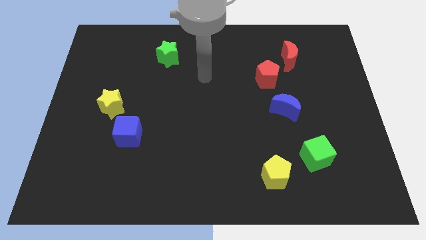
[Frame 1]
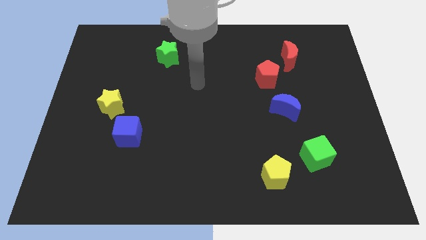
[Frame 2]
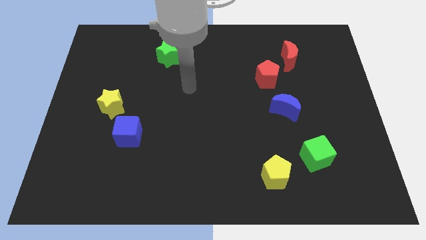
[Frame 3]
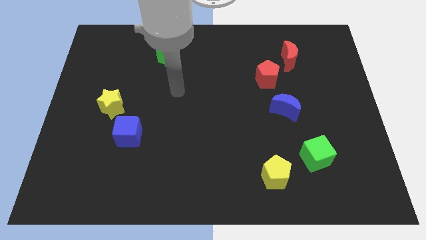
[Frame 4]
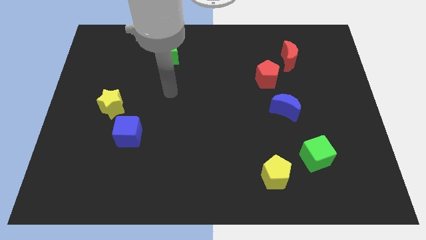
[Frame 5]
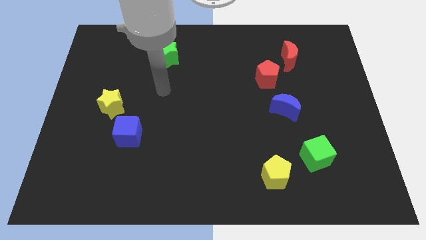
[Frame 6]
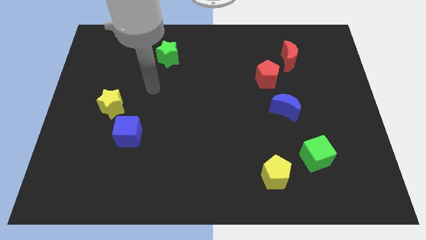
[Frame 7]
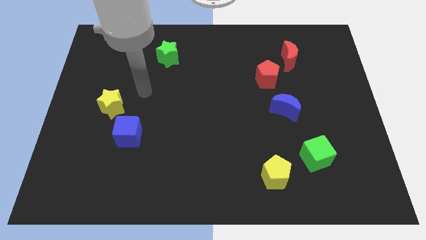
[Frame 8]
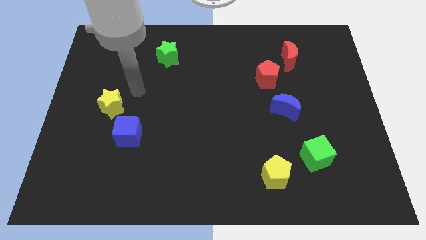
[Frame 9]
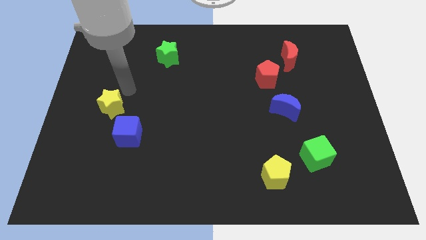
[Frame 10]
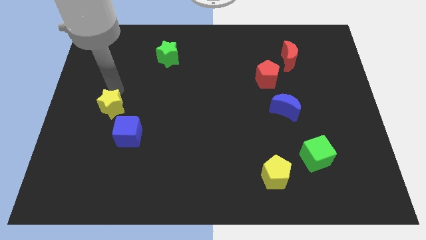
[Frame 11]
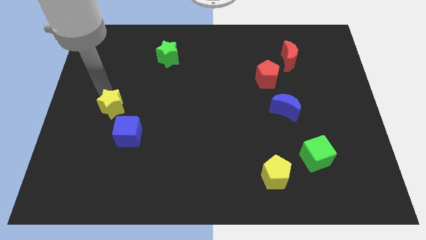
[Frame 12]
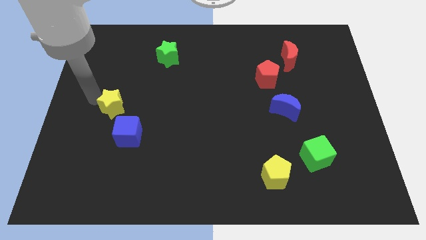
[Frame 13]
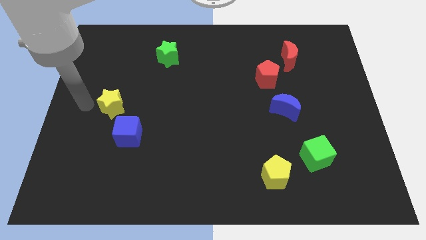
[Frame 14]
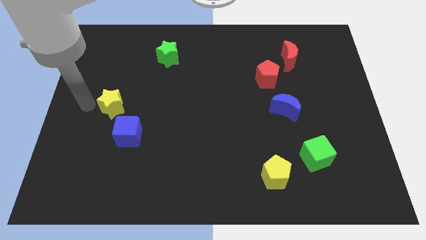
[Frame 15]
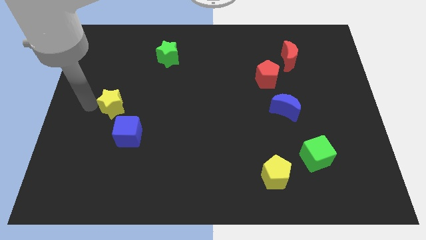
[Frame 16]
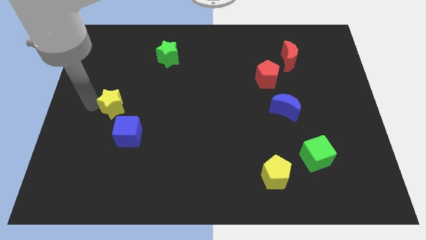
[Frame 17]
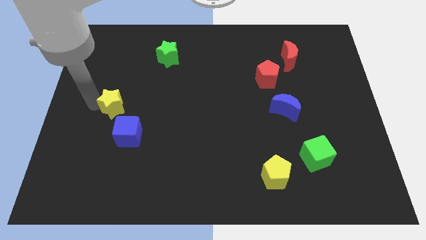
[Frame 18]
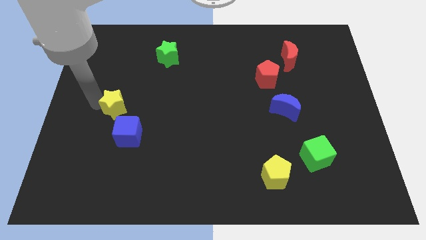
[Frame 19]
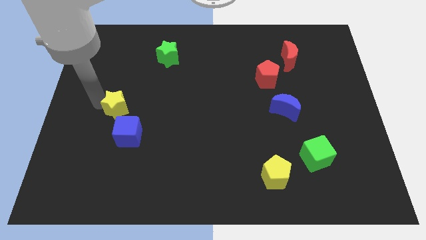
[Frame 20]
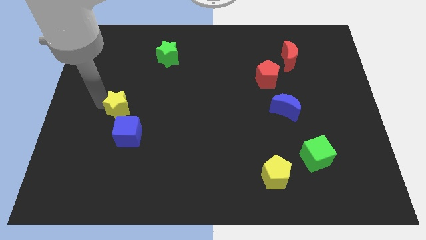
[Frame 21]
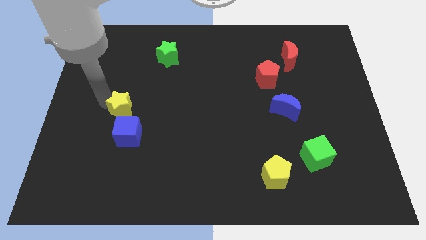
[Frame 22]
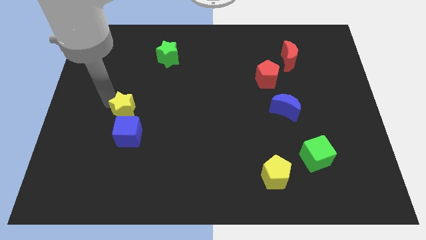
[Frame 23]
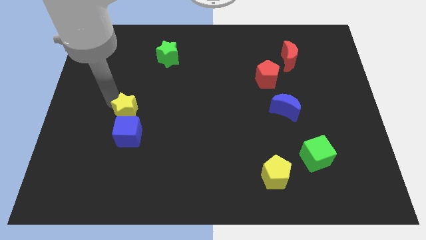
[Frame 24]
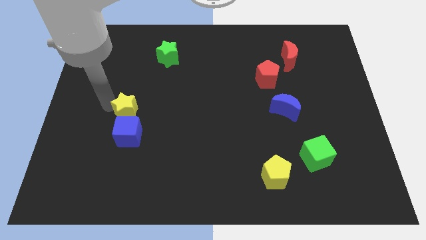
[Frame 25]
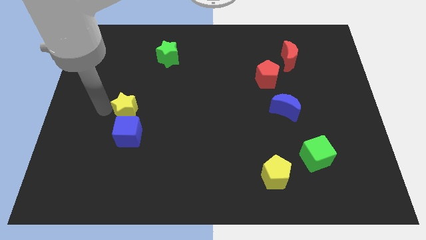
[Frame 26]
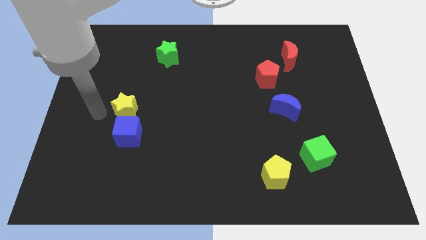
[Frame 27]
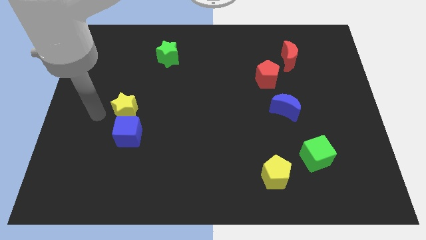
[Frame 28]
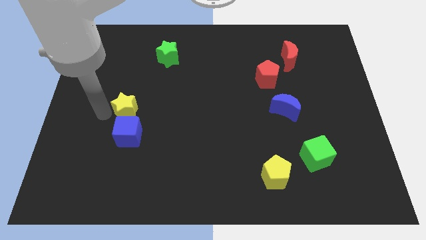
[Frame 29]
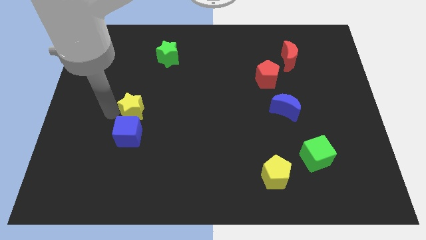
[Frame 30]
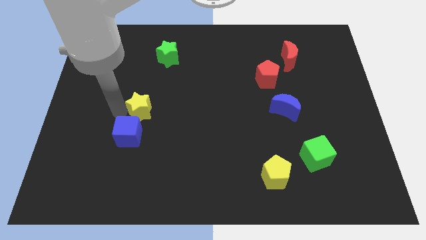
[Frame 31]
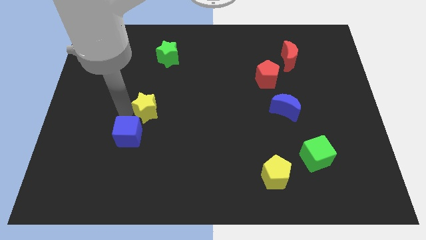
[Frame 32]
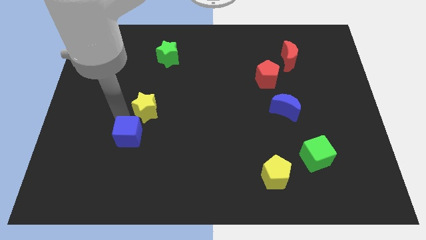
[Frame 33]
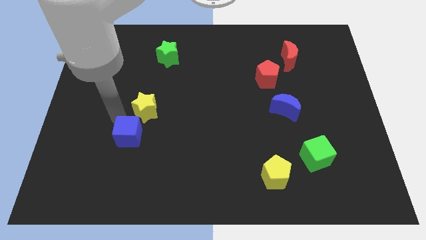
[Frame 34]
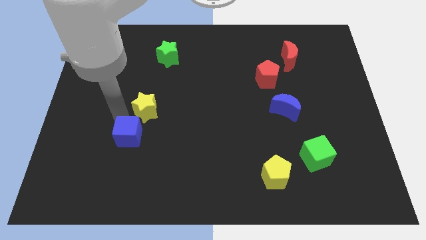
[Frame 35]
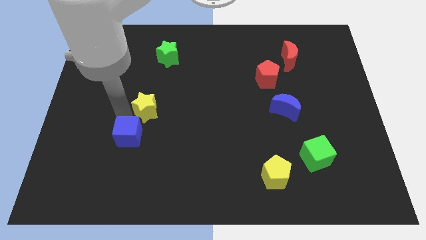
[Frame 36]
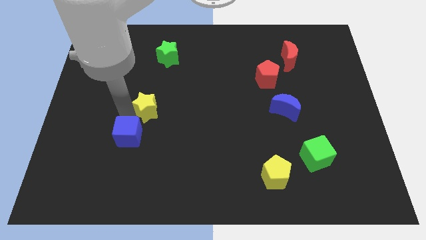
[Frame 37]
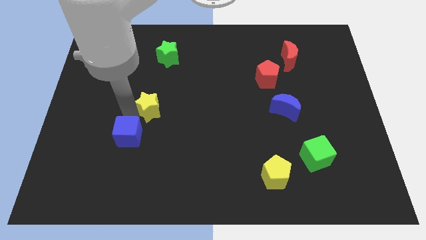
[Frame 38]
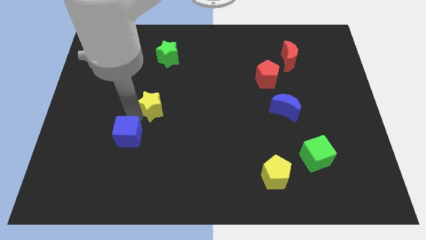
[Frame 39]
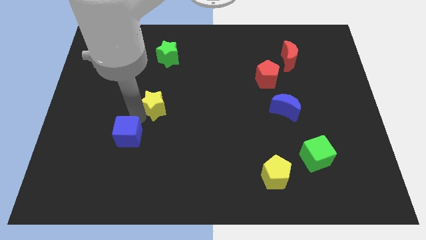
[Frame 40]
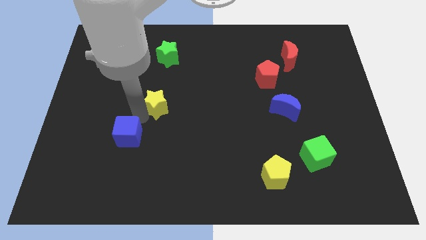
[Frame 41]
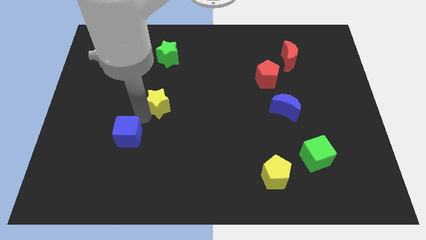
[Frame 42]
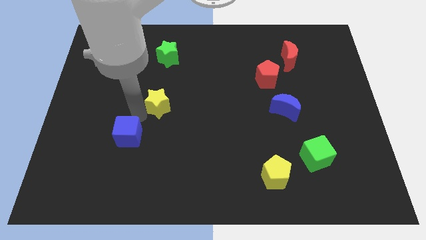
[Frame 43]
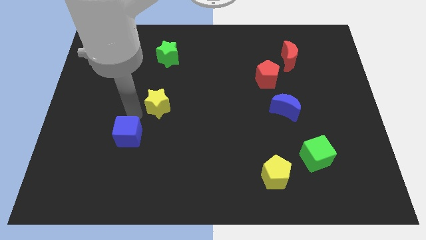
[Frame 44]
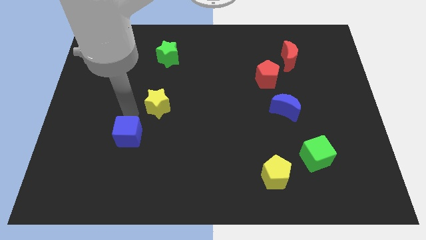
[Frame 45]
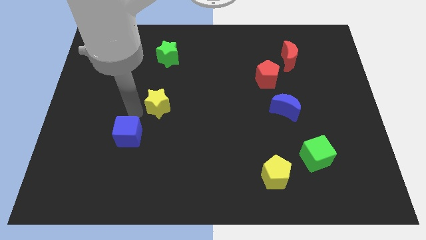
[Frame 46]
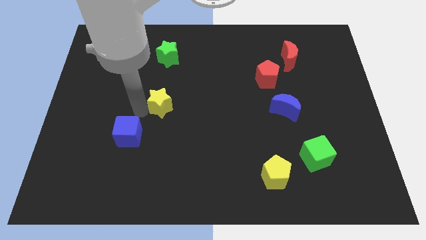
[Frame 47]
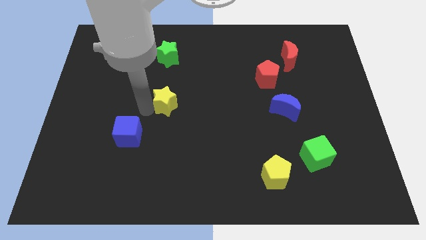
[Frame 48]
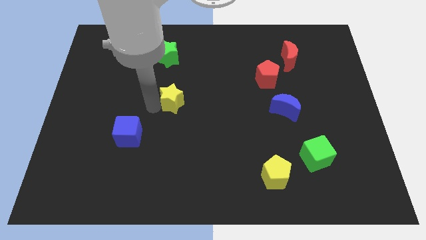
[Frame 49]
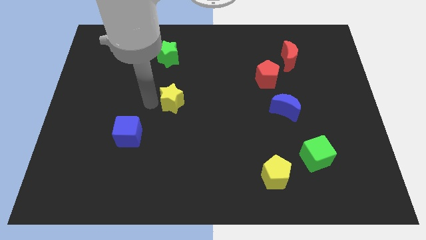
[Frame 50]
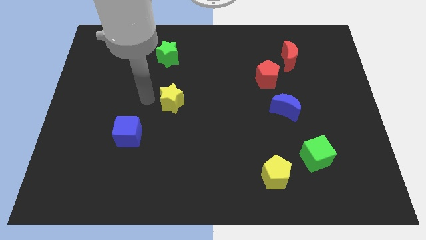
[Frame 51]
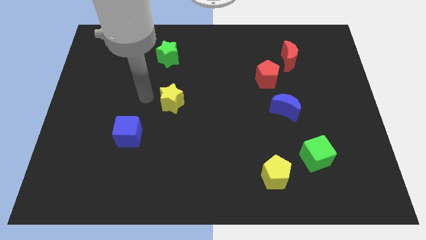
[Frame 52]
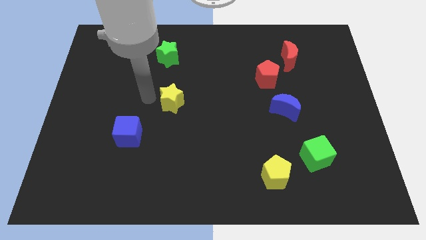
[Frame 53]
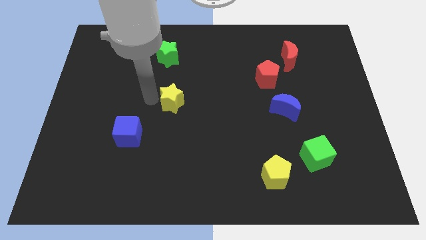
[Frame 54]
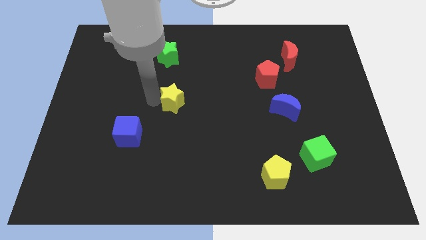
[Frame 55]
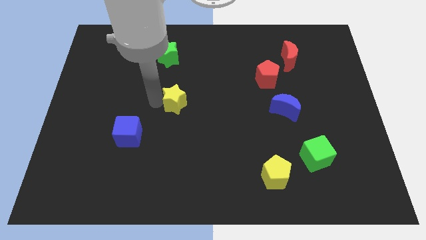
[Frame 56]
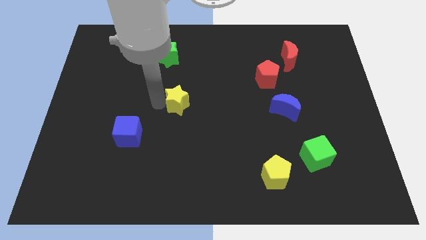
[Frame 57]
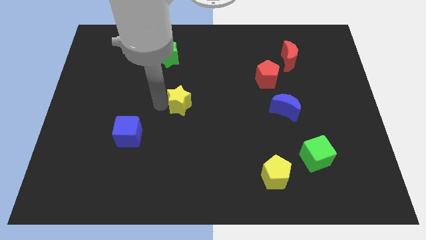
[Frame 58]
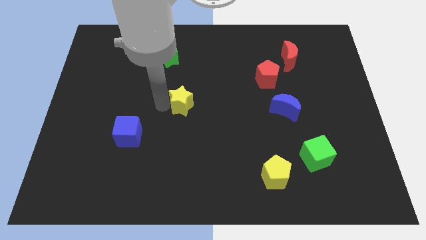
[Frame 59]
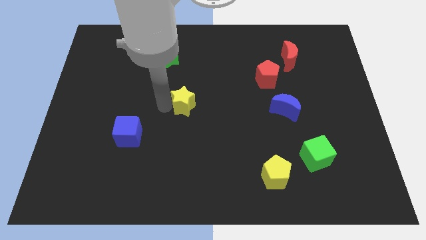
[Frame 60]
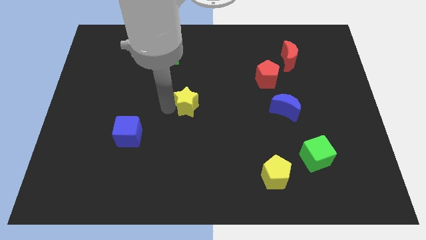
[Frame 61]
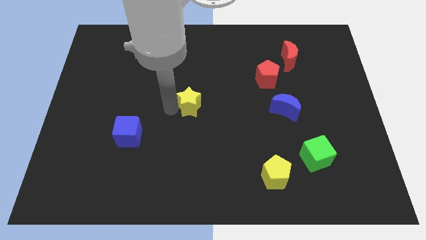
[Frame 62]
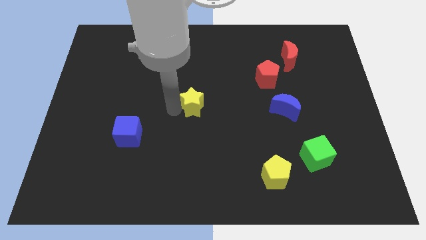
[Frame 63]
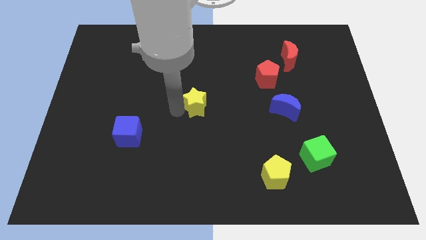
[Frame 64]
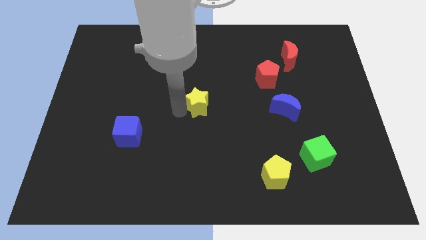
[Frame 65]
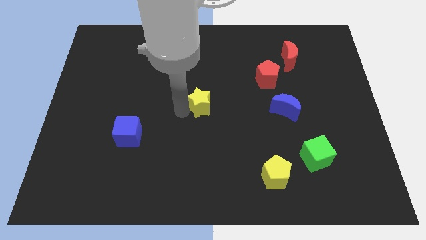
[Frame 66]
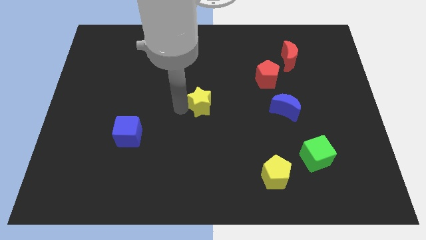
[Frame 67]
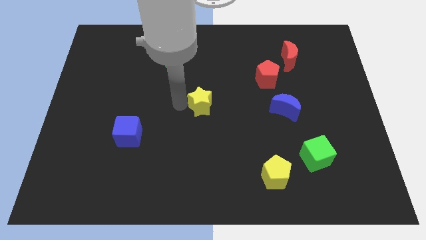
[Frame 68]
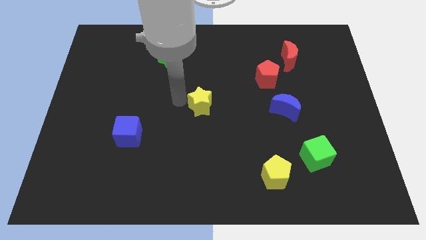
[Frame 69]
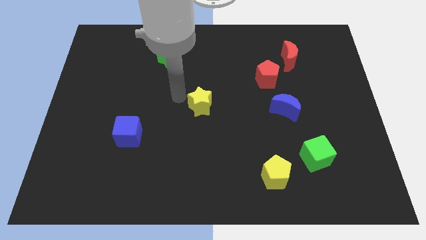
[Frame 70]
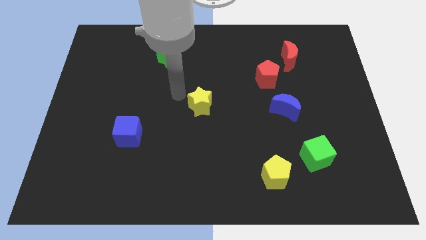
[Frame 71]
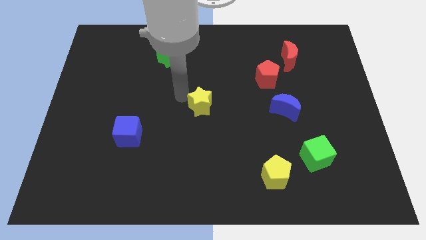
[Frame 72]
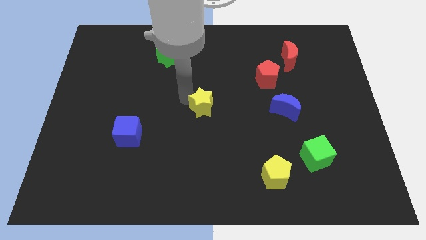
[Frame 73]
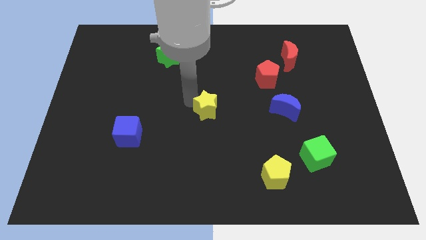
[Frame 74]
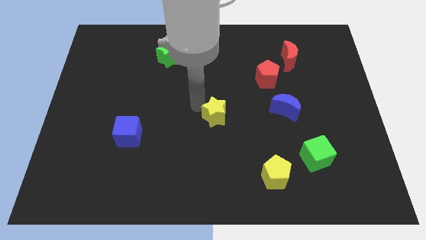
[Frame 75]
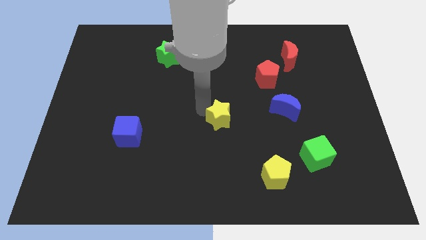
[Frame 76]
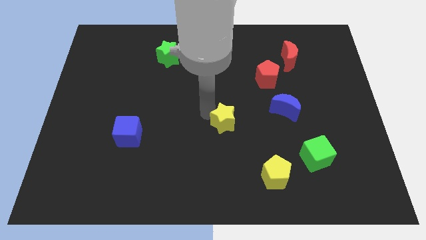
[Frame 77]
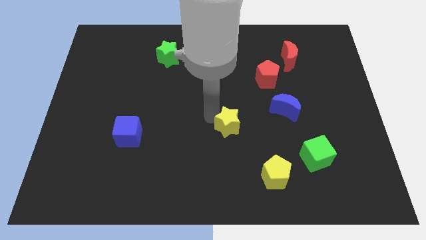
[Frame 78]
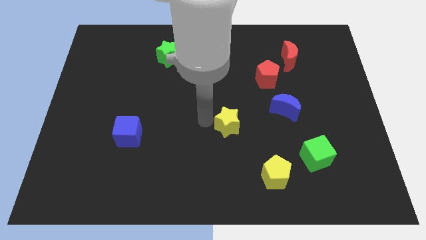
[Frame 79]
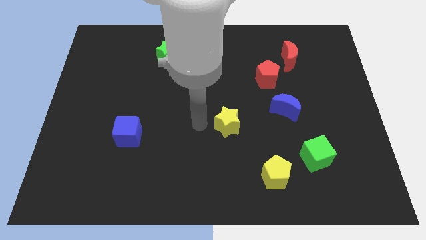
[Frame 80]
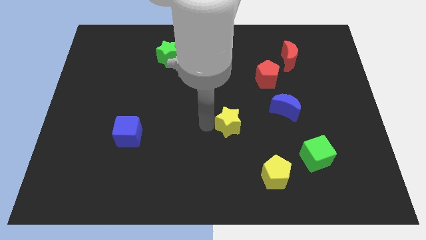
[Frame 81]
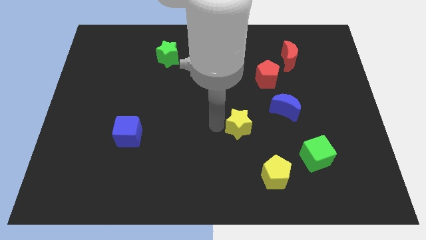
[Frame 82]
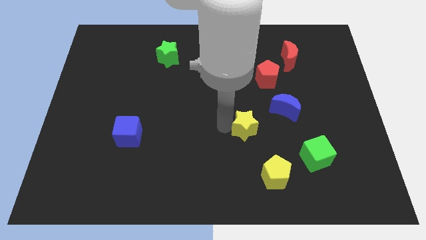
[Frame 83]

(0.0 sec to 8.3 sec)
put the yellow star diagonally down and to the left of the blue moon
